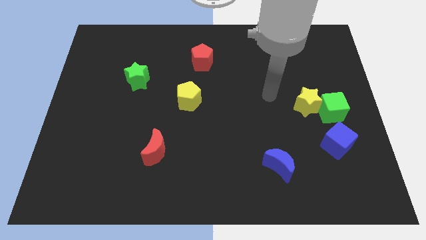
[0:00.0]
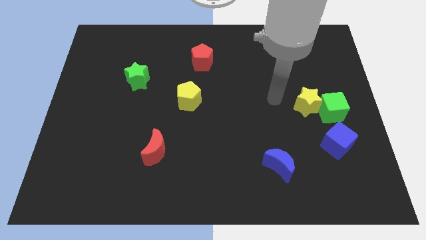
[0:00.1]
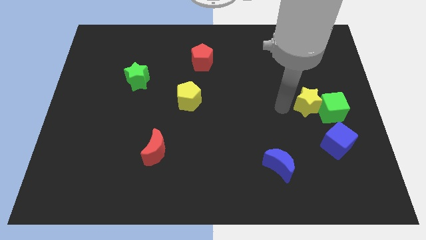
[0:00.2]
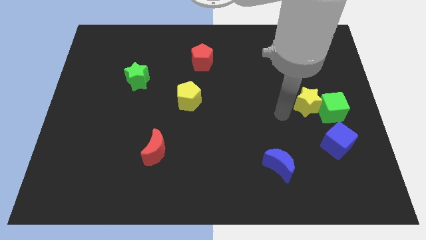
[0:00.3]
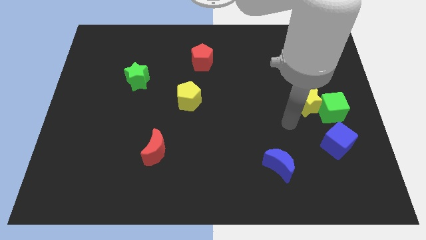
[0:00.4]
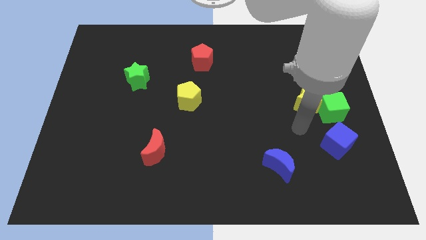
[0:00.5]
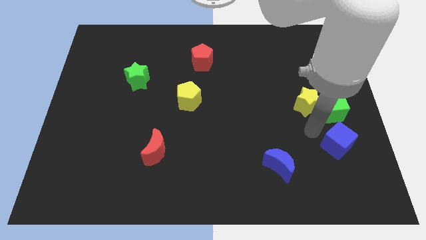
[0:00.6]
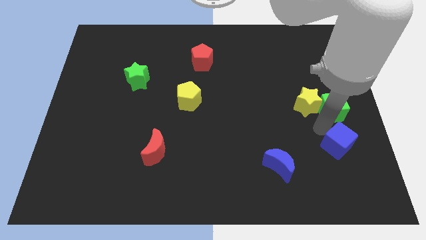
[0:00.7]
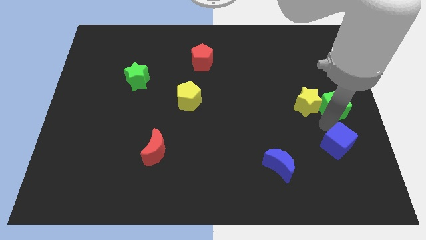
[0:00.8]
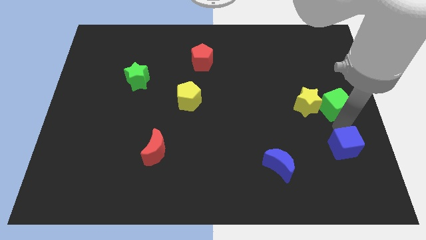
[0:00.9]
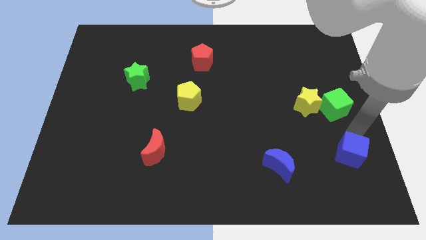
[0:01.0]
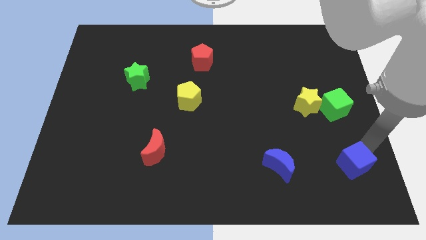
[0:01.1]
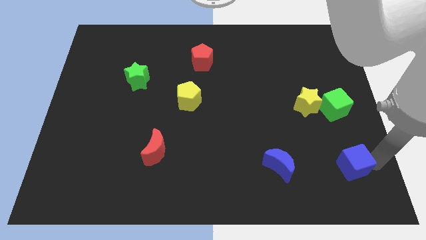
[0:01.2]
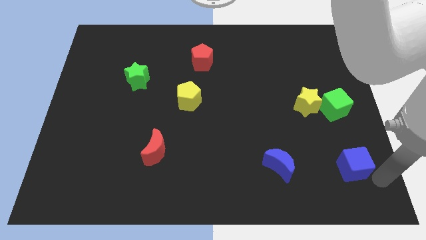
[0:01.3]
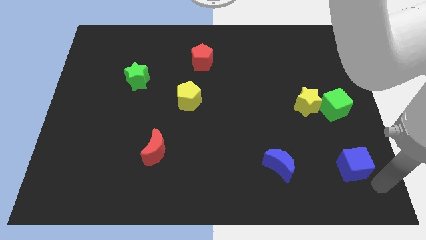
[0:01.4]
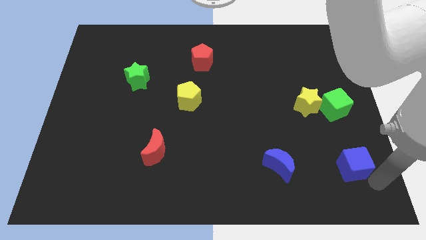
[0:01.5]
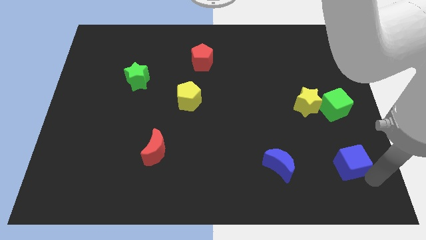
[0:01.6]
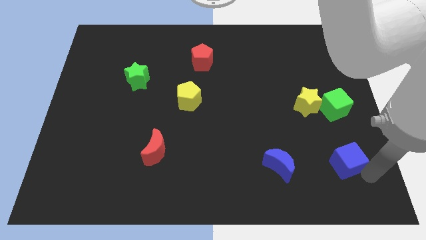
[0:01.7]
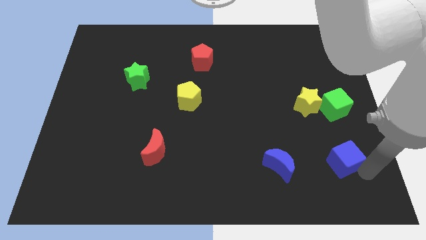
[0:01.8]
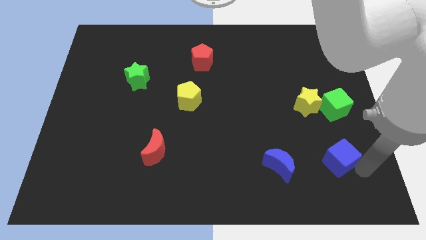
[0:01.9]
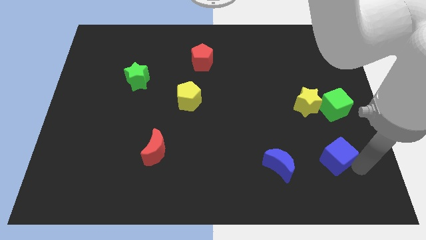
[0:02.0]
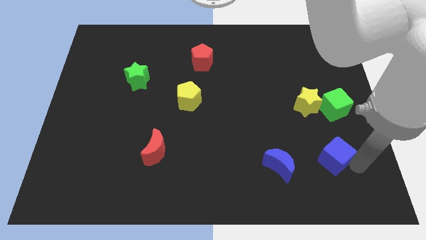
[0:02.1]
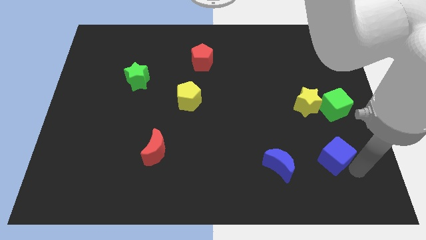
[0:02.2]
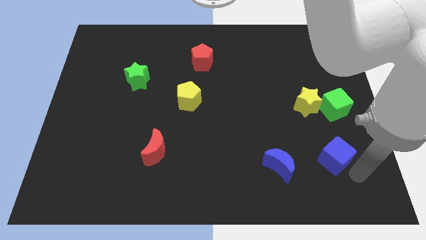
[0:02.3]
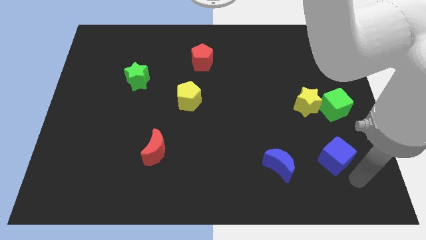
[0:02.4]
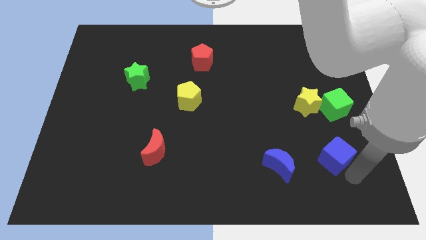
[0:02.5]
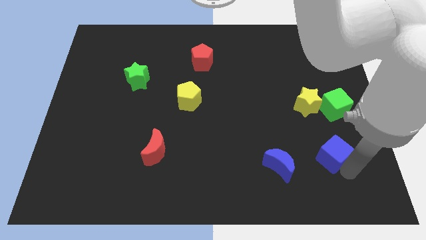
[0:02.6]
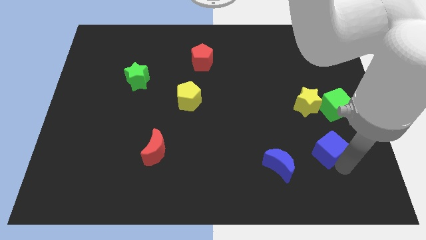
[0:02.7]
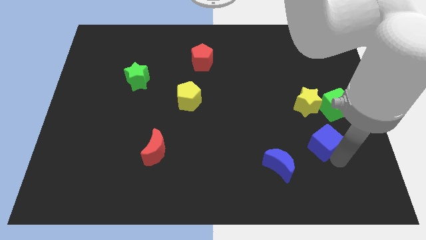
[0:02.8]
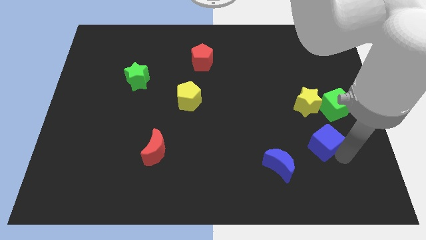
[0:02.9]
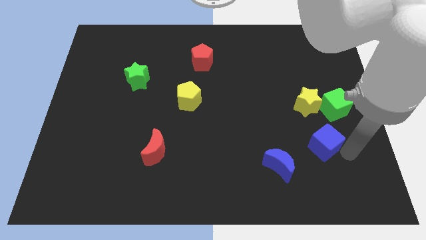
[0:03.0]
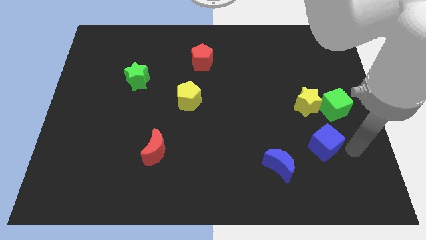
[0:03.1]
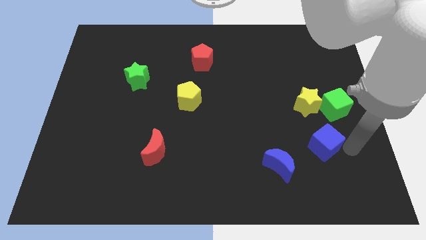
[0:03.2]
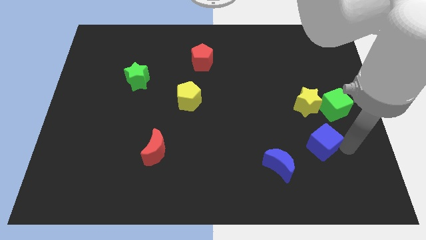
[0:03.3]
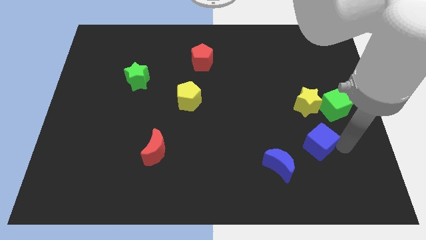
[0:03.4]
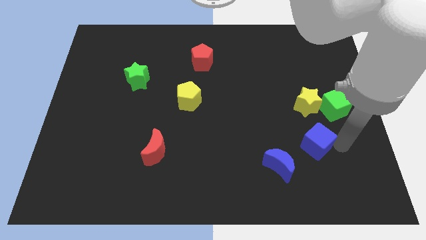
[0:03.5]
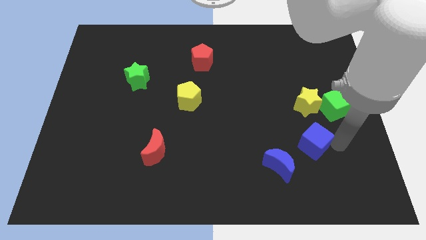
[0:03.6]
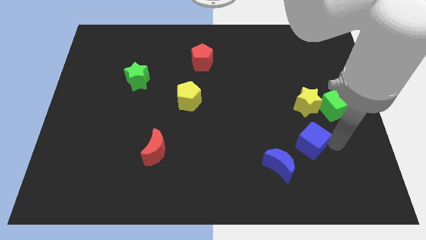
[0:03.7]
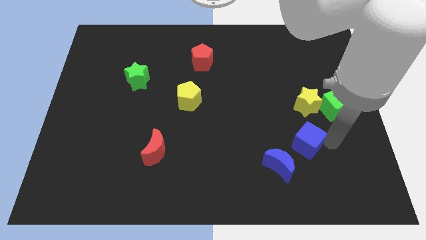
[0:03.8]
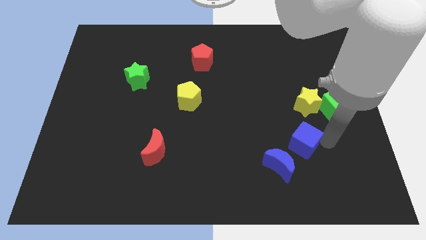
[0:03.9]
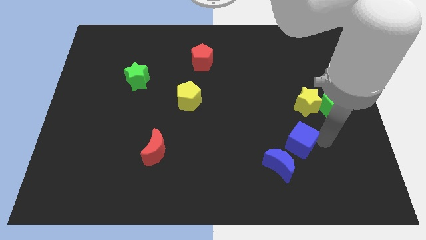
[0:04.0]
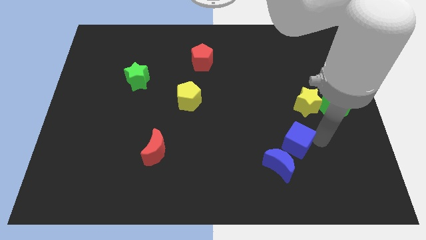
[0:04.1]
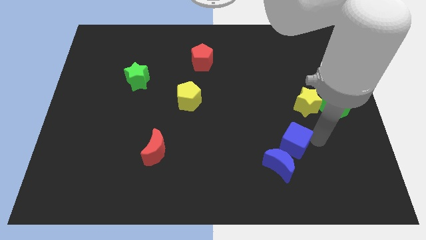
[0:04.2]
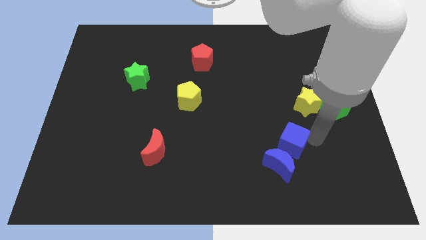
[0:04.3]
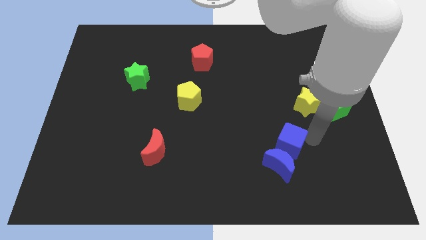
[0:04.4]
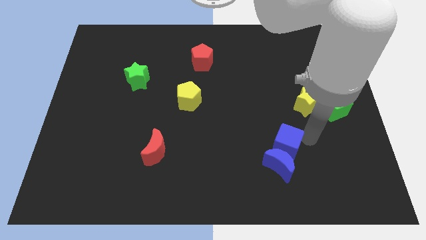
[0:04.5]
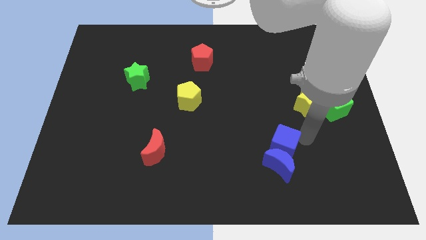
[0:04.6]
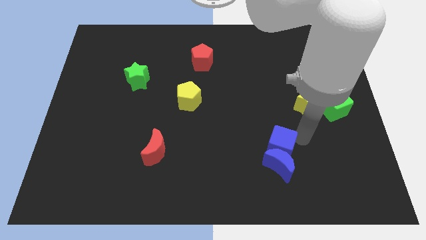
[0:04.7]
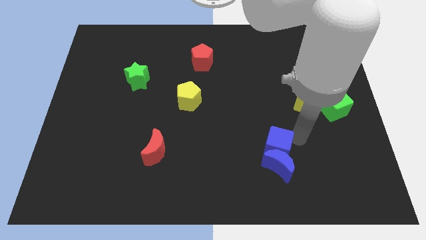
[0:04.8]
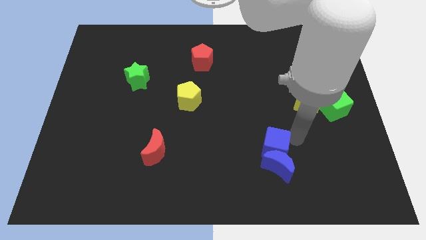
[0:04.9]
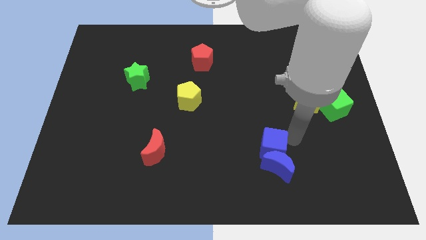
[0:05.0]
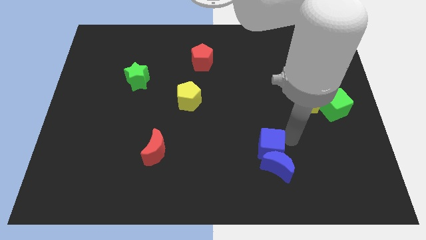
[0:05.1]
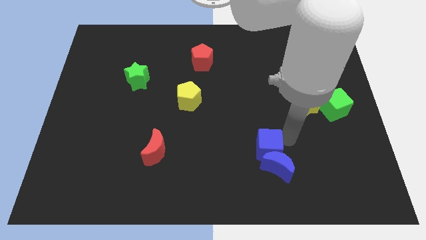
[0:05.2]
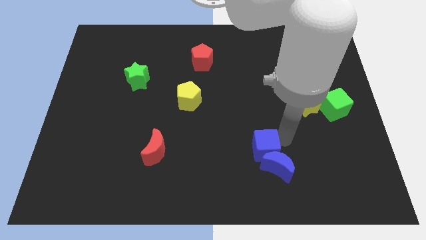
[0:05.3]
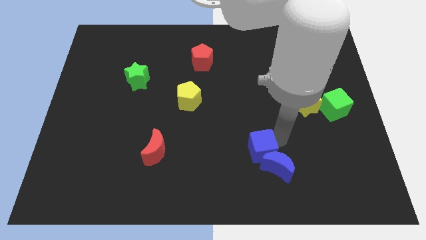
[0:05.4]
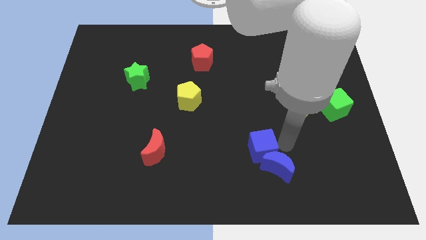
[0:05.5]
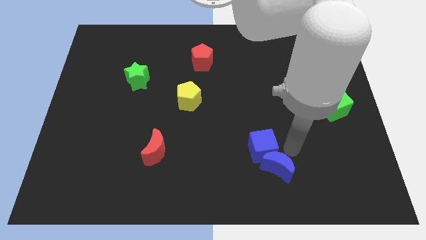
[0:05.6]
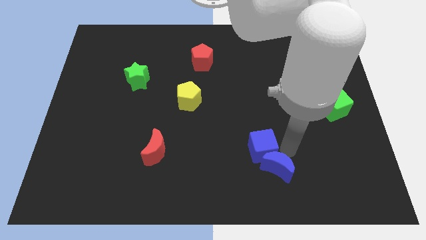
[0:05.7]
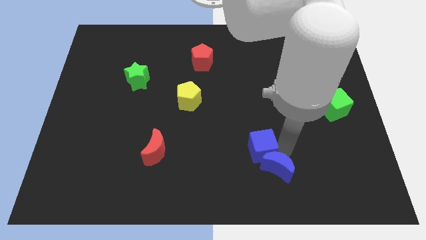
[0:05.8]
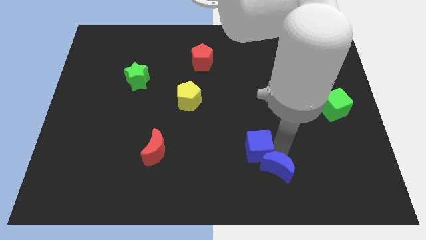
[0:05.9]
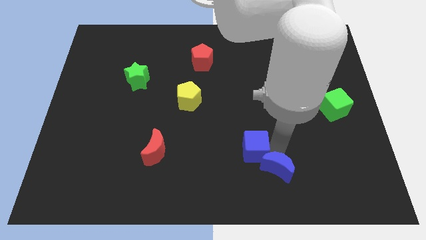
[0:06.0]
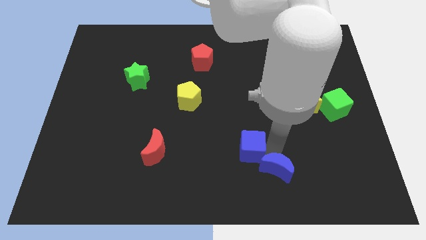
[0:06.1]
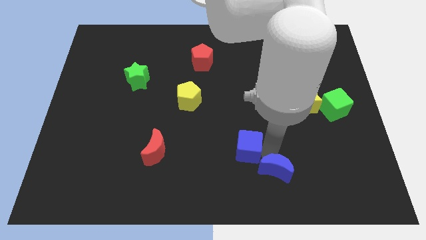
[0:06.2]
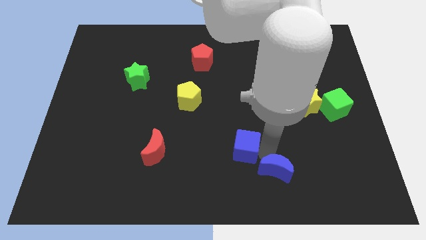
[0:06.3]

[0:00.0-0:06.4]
slide the blue cube left

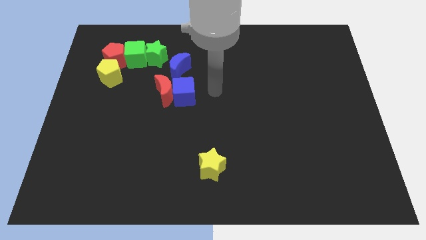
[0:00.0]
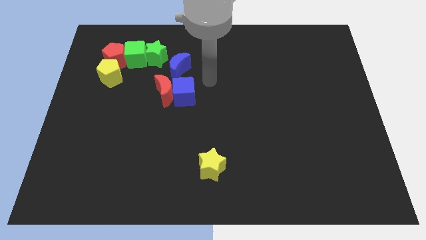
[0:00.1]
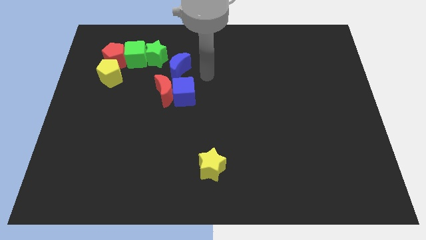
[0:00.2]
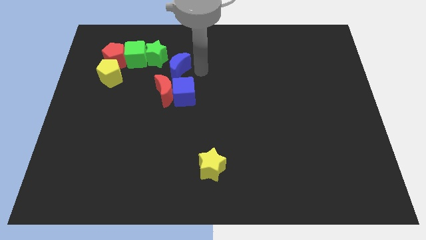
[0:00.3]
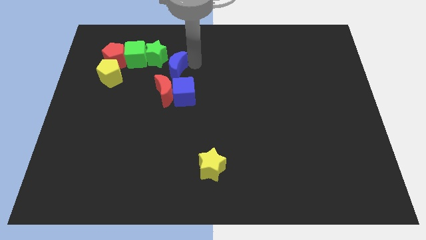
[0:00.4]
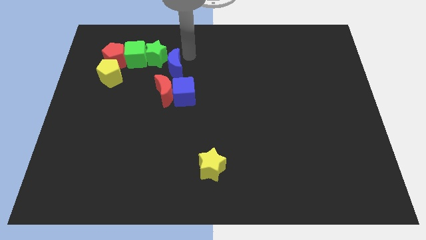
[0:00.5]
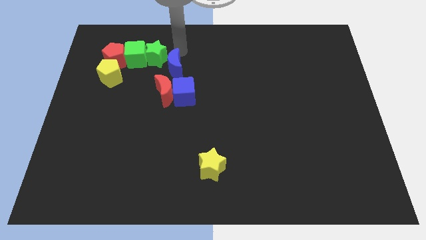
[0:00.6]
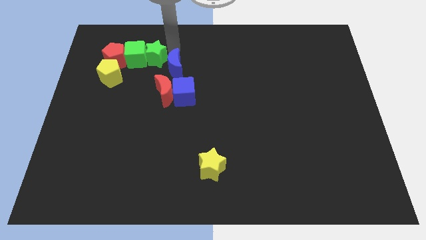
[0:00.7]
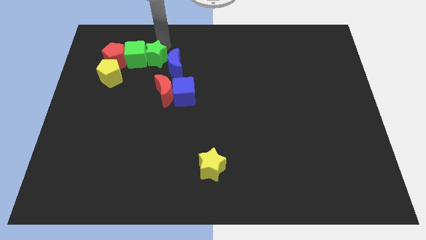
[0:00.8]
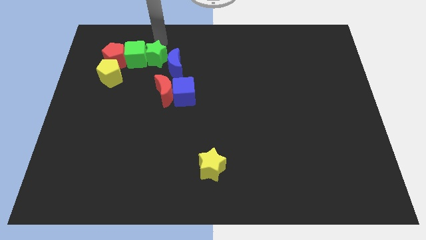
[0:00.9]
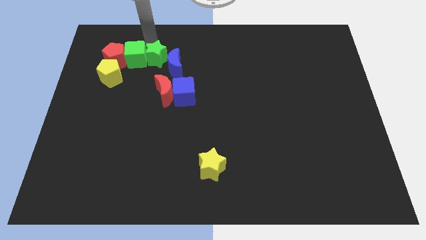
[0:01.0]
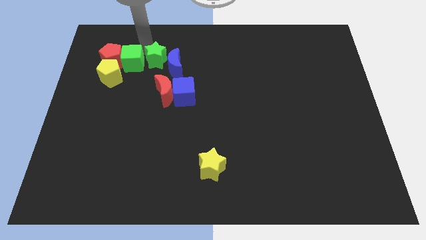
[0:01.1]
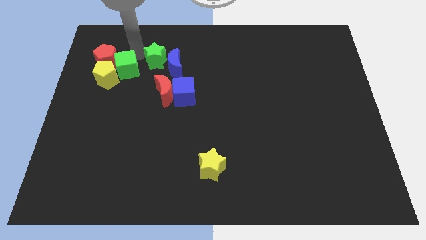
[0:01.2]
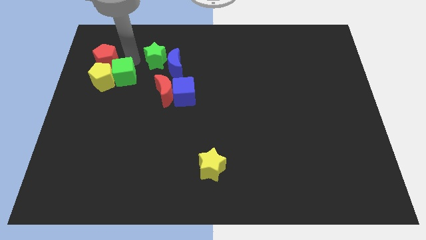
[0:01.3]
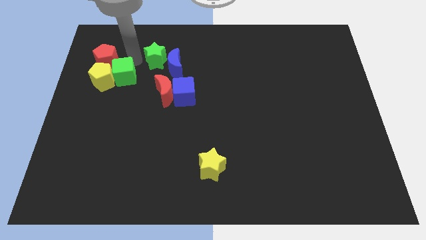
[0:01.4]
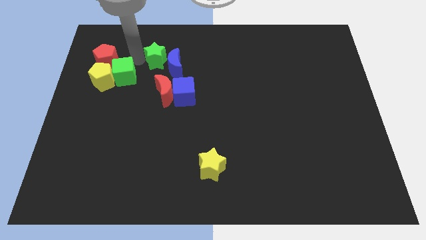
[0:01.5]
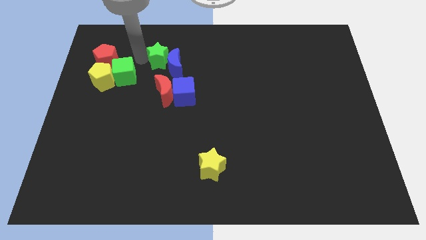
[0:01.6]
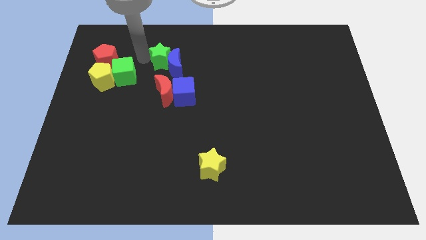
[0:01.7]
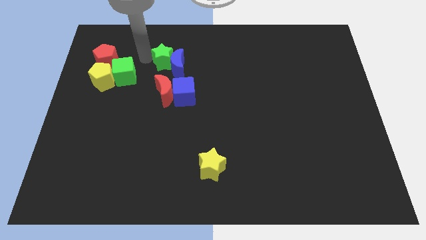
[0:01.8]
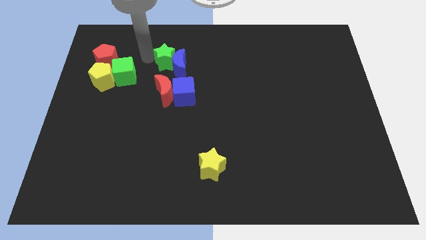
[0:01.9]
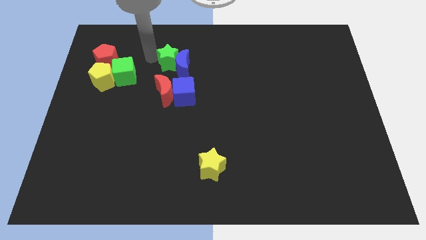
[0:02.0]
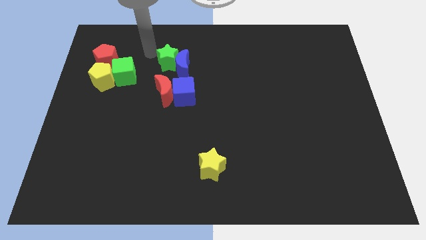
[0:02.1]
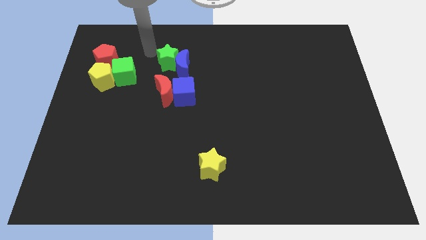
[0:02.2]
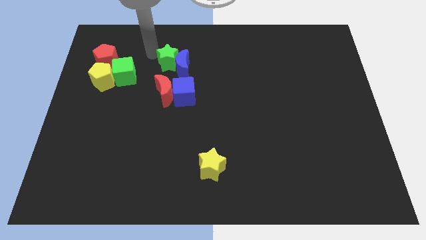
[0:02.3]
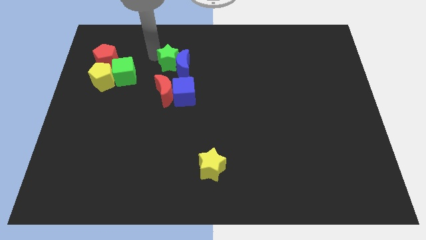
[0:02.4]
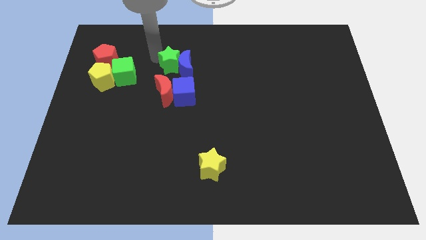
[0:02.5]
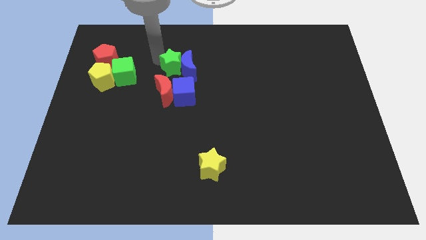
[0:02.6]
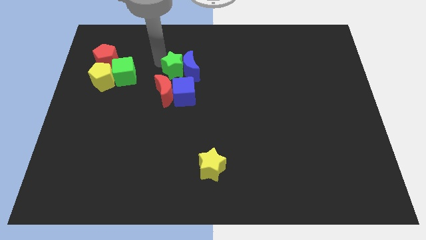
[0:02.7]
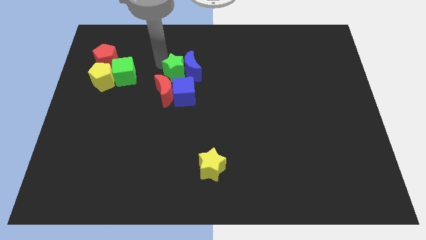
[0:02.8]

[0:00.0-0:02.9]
push the green star diagonally down and right somewhat
